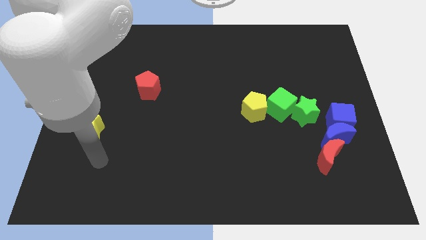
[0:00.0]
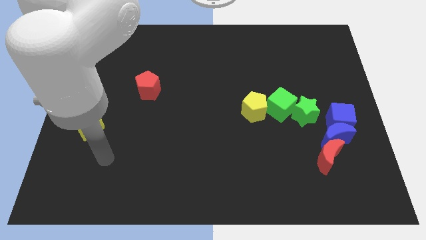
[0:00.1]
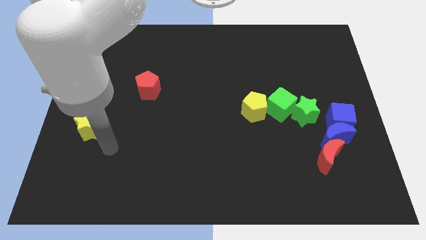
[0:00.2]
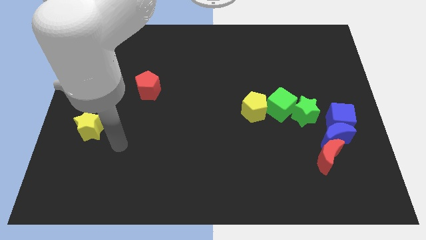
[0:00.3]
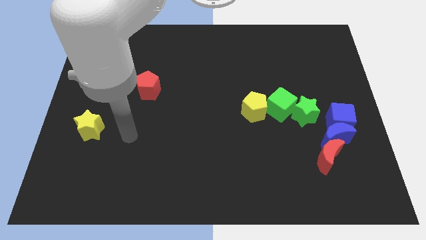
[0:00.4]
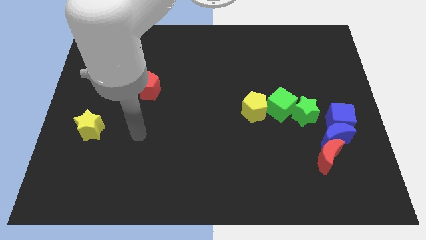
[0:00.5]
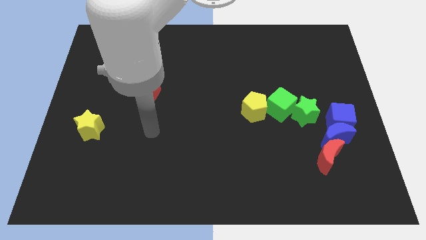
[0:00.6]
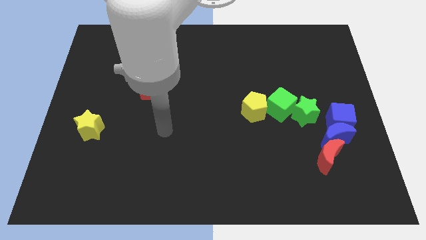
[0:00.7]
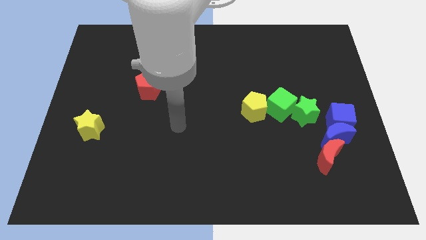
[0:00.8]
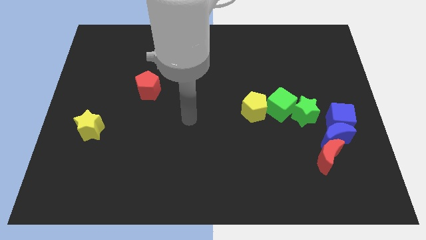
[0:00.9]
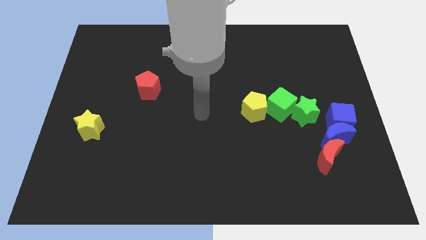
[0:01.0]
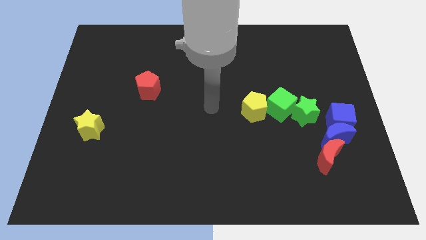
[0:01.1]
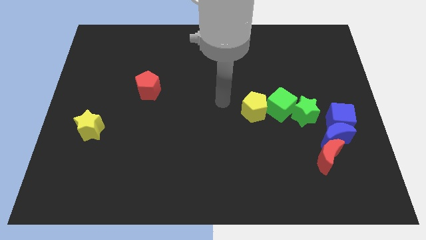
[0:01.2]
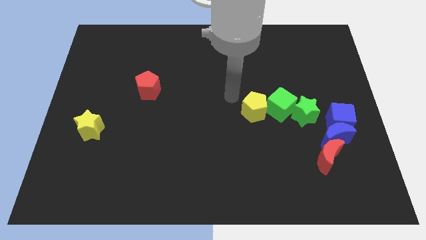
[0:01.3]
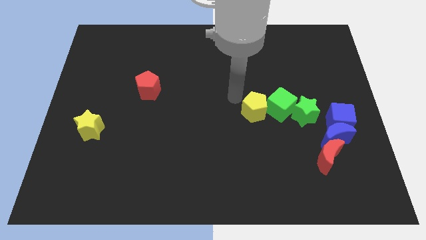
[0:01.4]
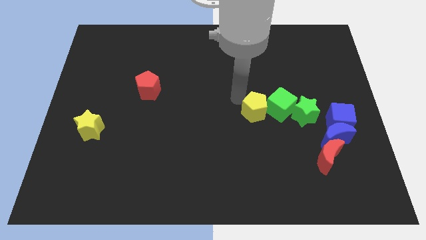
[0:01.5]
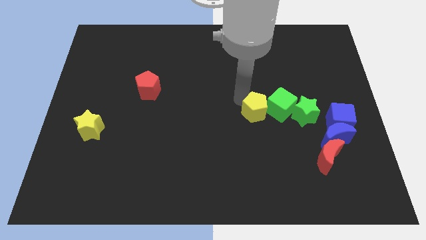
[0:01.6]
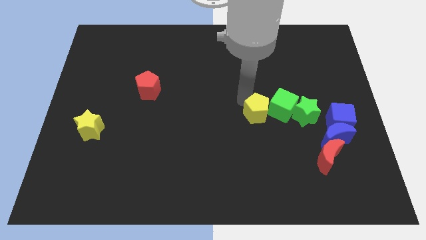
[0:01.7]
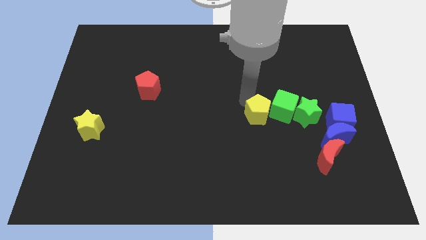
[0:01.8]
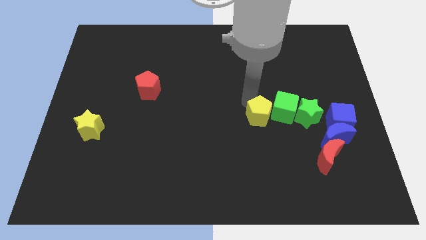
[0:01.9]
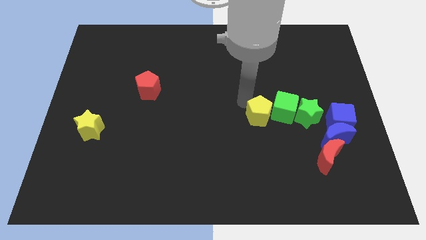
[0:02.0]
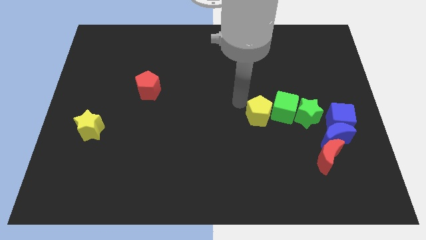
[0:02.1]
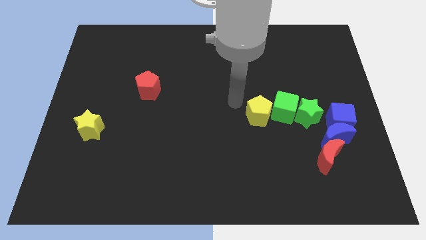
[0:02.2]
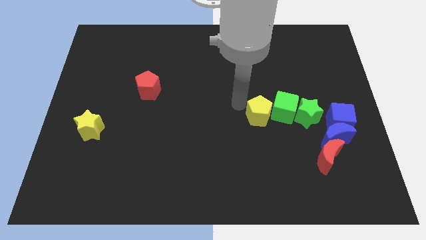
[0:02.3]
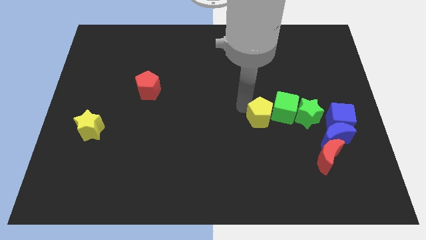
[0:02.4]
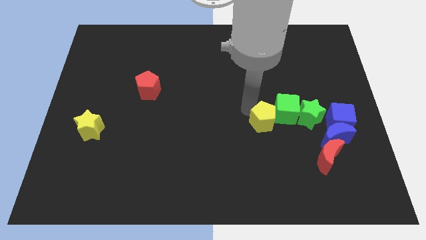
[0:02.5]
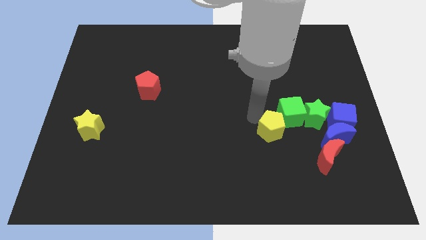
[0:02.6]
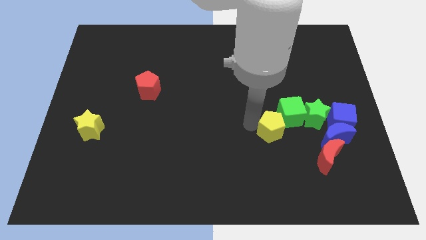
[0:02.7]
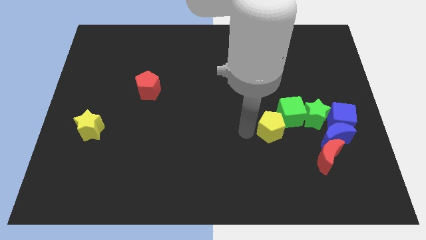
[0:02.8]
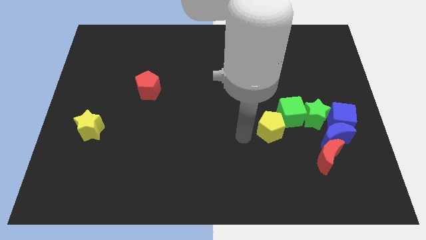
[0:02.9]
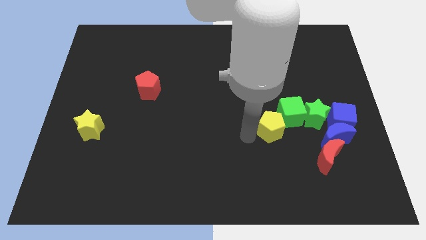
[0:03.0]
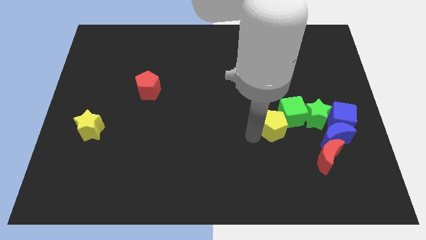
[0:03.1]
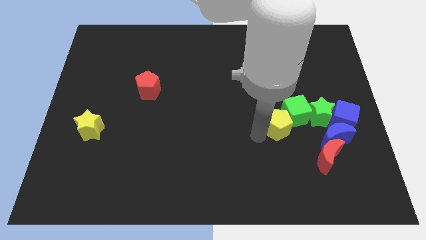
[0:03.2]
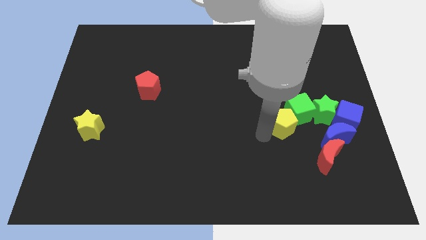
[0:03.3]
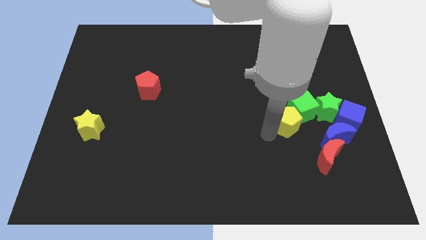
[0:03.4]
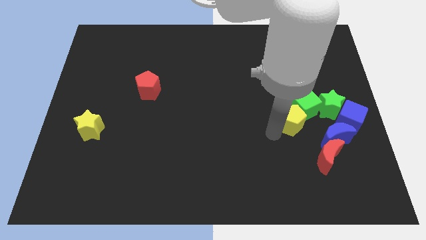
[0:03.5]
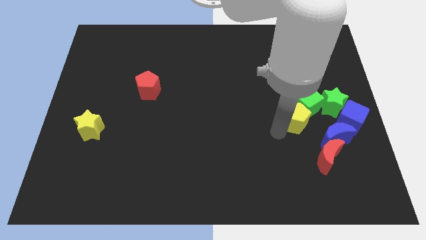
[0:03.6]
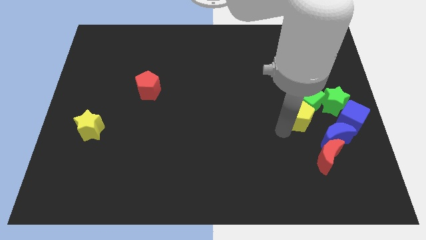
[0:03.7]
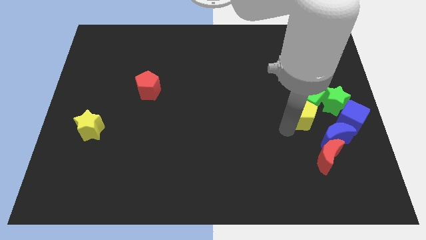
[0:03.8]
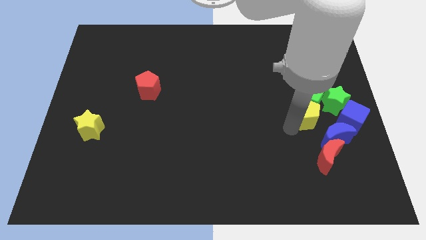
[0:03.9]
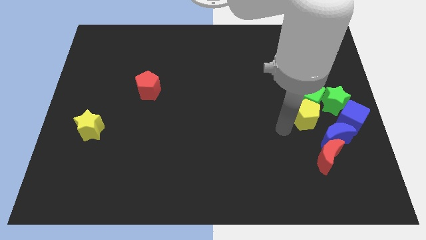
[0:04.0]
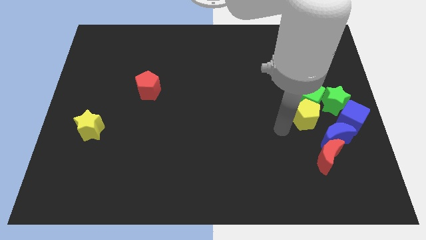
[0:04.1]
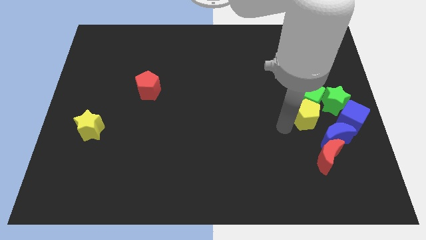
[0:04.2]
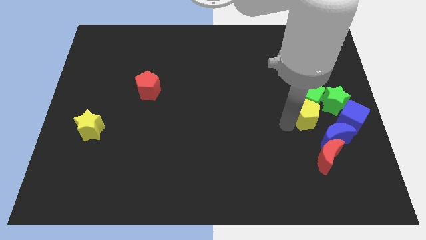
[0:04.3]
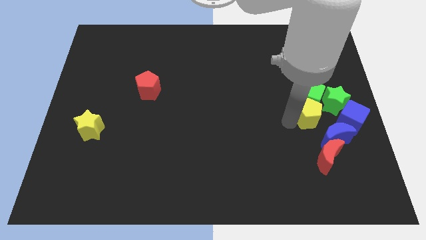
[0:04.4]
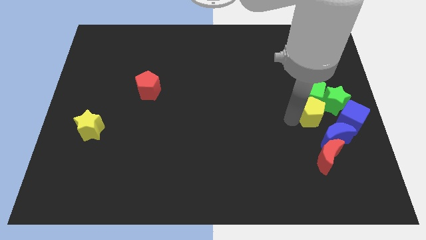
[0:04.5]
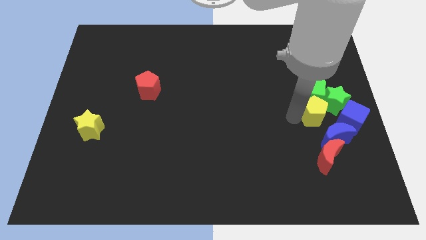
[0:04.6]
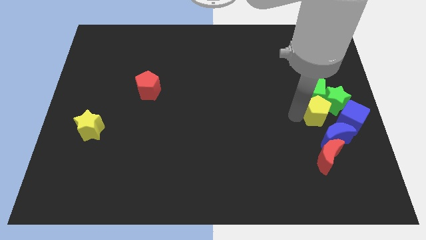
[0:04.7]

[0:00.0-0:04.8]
put the yellow pentagon next to the green star

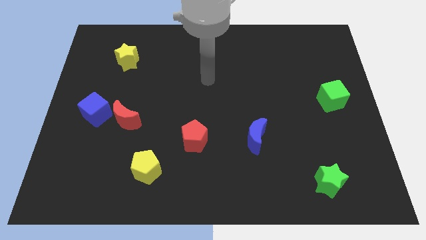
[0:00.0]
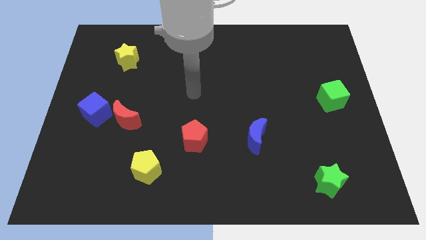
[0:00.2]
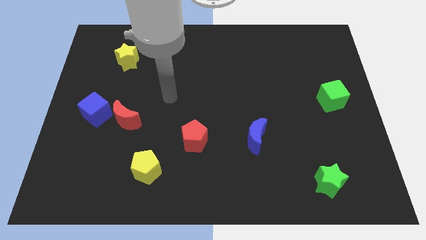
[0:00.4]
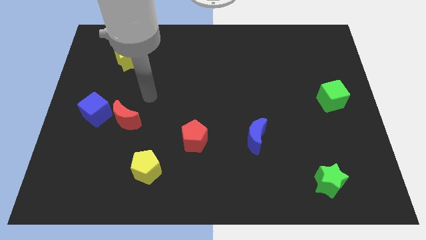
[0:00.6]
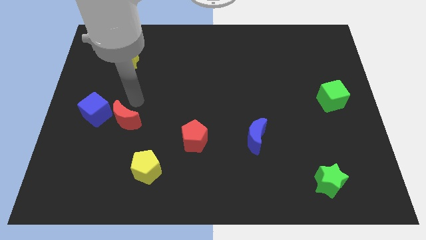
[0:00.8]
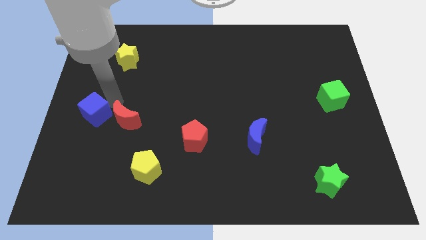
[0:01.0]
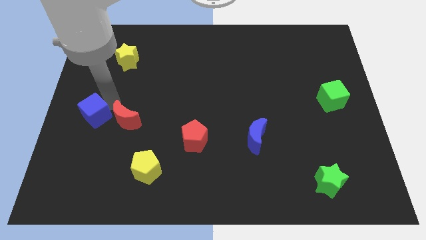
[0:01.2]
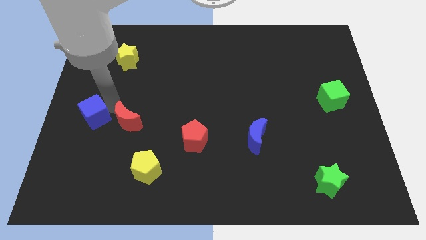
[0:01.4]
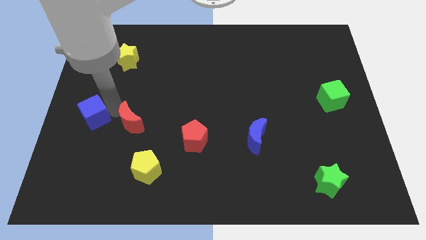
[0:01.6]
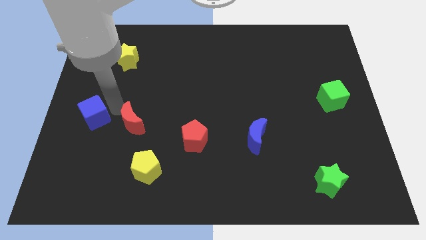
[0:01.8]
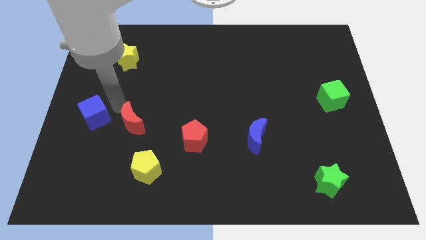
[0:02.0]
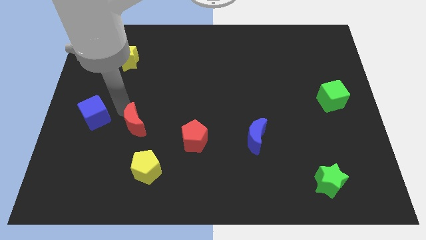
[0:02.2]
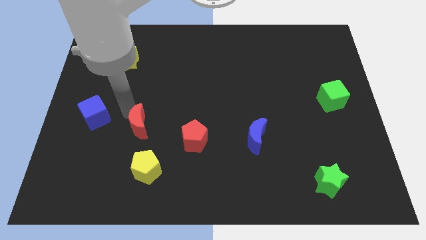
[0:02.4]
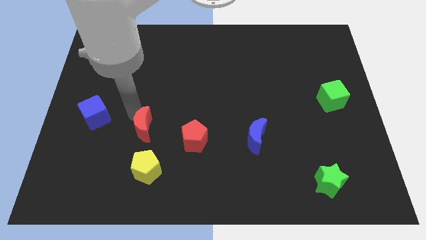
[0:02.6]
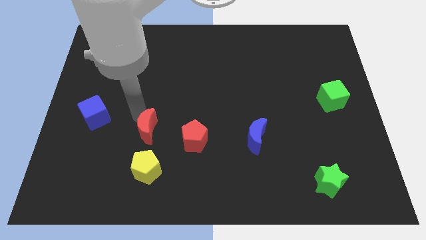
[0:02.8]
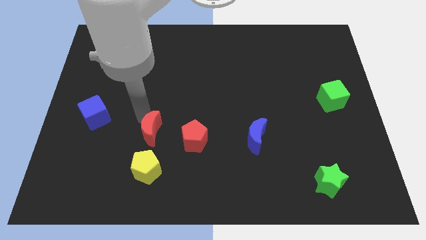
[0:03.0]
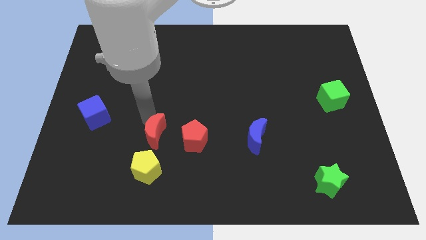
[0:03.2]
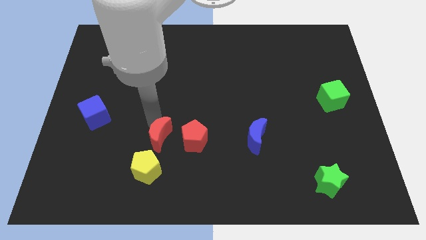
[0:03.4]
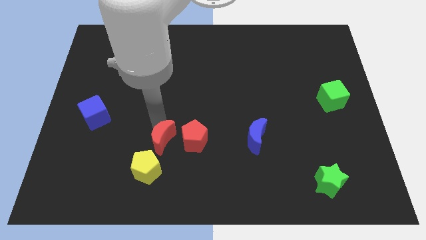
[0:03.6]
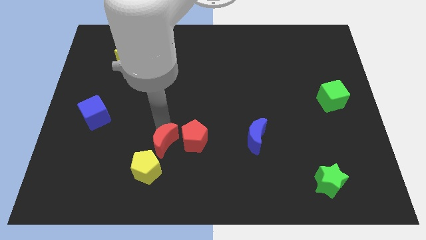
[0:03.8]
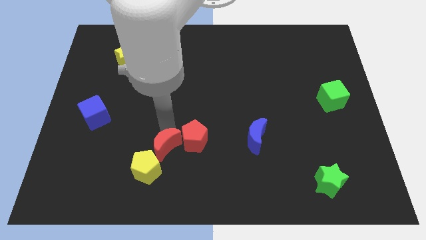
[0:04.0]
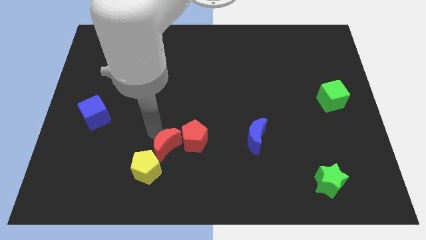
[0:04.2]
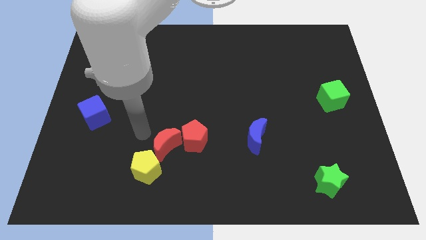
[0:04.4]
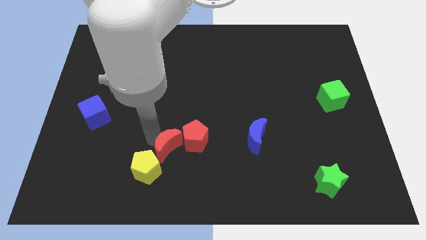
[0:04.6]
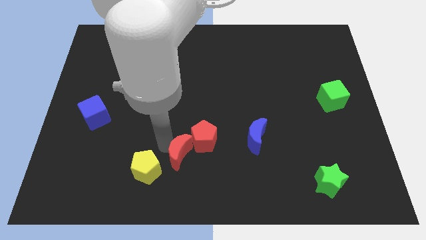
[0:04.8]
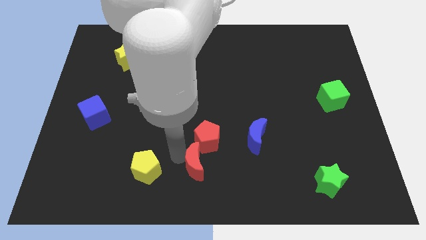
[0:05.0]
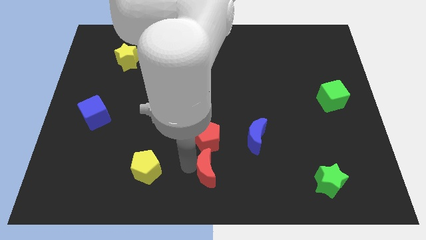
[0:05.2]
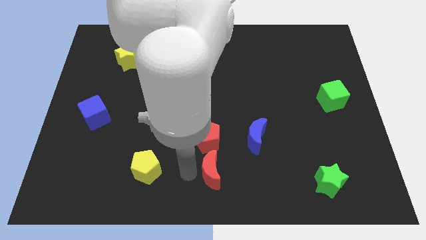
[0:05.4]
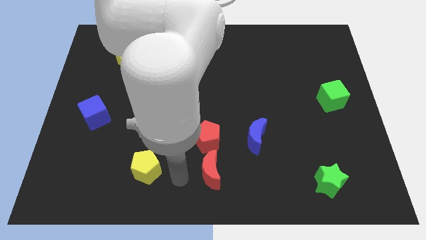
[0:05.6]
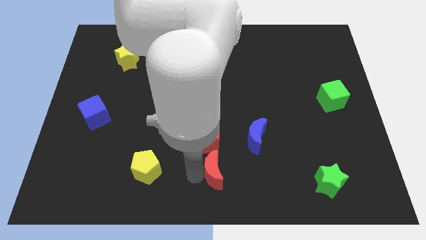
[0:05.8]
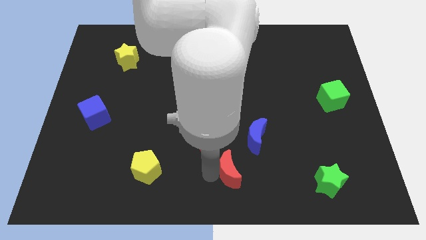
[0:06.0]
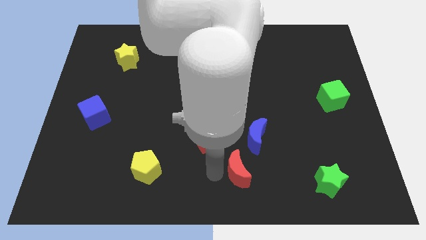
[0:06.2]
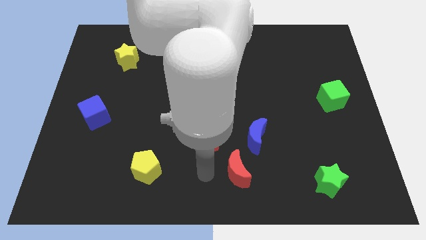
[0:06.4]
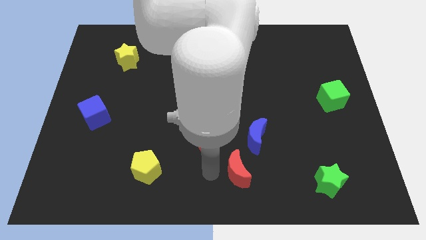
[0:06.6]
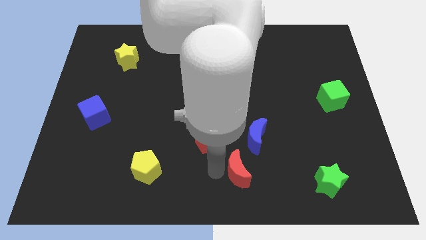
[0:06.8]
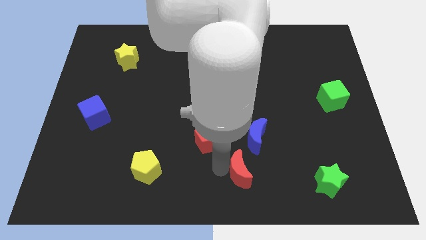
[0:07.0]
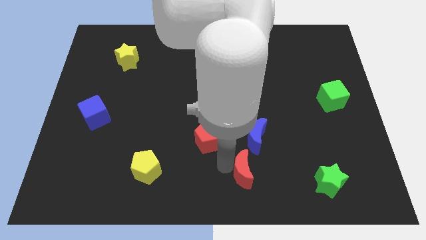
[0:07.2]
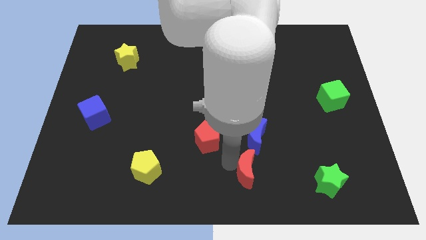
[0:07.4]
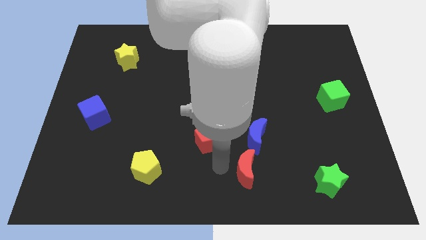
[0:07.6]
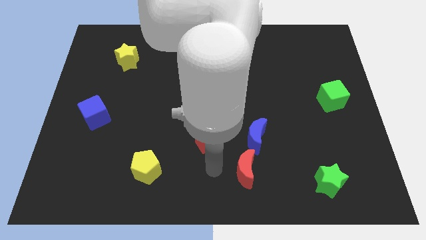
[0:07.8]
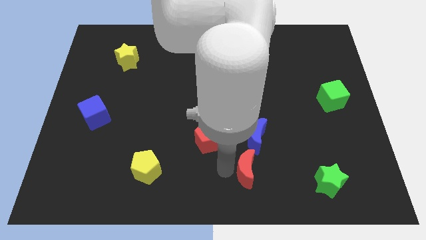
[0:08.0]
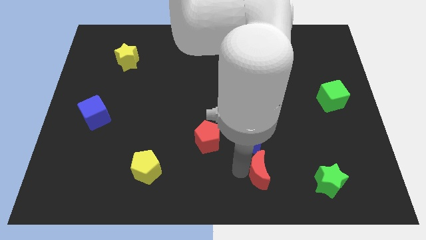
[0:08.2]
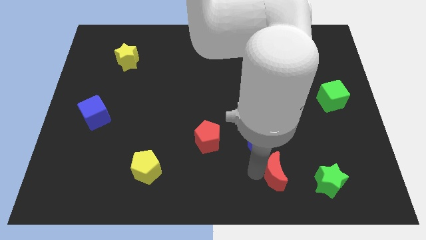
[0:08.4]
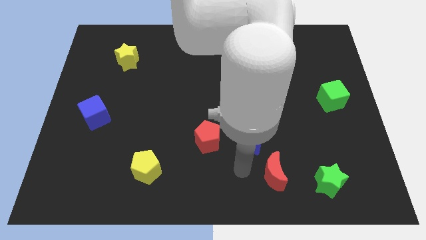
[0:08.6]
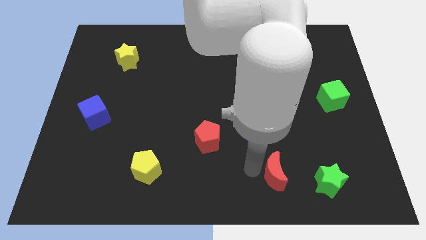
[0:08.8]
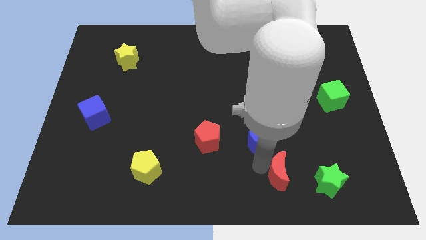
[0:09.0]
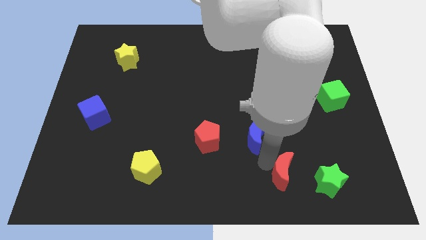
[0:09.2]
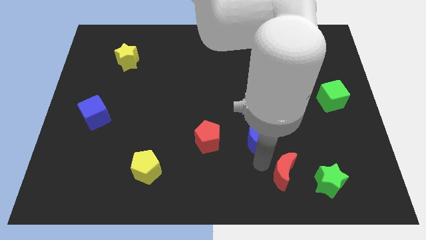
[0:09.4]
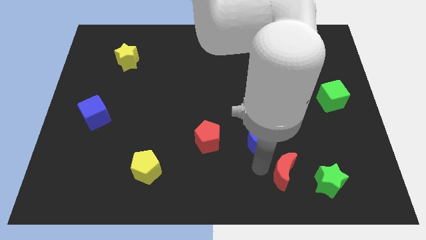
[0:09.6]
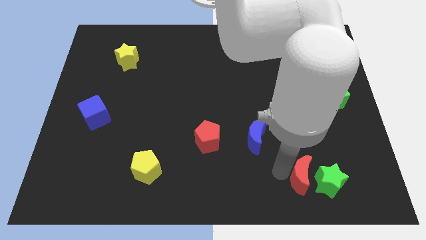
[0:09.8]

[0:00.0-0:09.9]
put the red moon next to the green star
